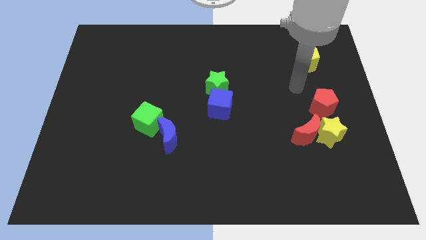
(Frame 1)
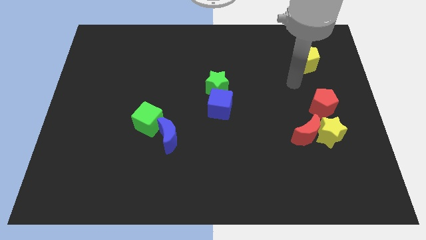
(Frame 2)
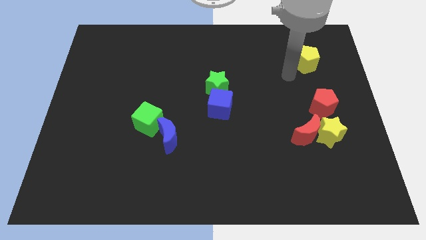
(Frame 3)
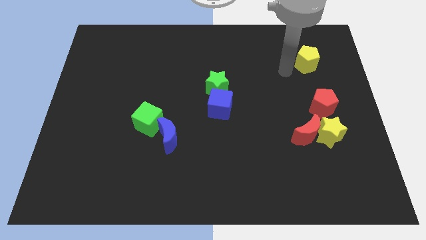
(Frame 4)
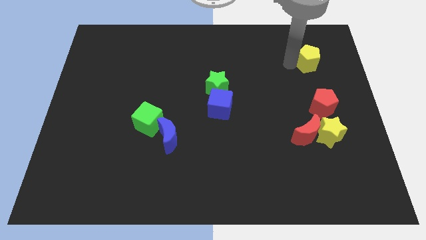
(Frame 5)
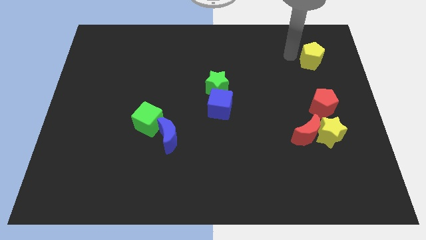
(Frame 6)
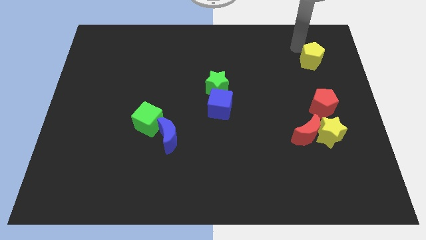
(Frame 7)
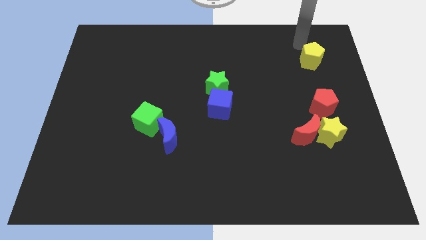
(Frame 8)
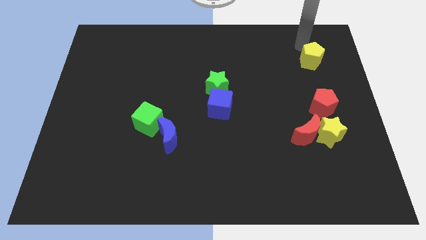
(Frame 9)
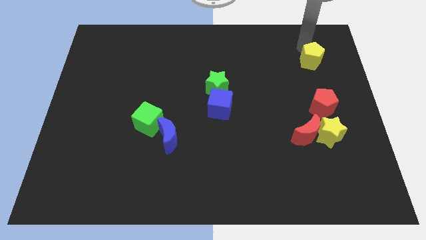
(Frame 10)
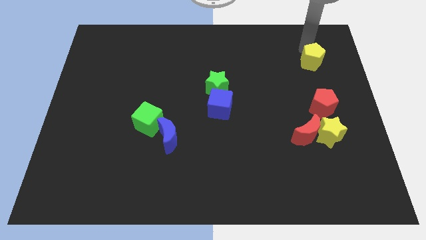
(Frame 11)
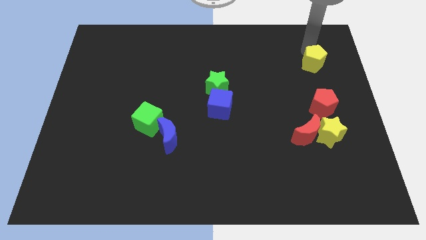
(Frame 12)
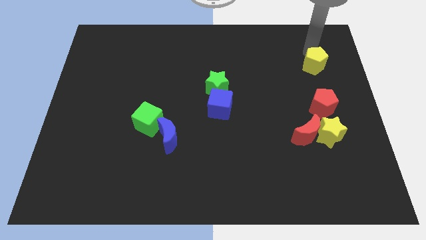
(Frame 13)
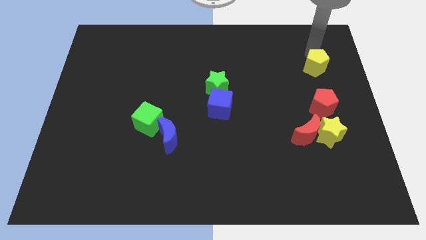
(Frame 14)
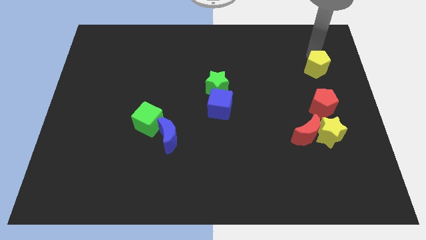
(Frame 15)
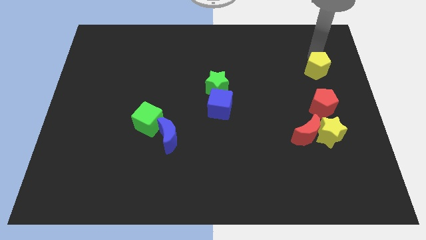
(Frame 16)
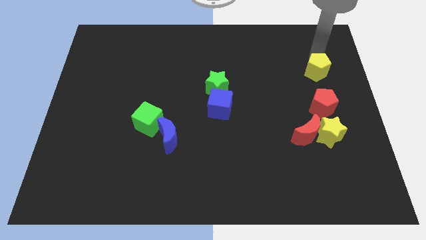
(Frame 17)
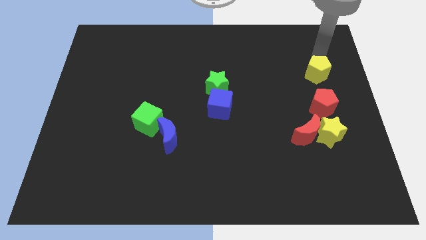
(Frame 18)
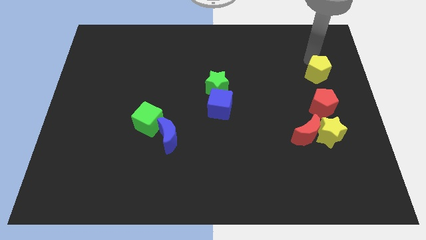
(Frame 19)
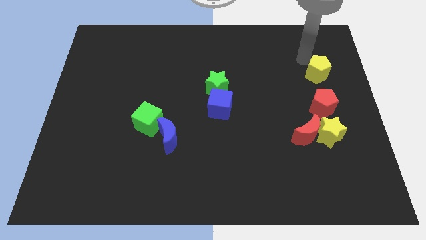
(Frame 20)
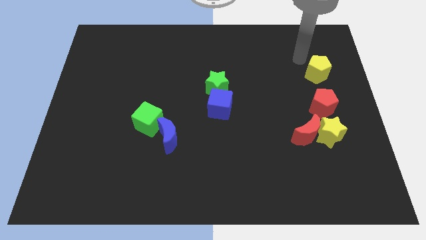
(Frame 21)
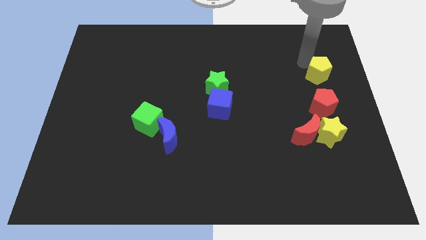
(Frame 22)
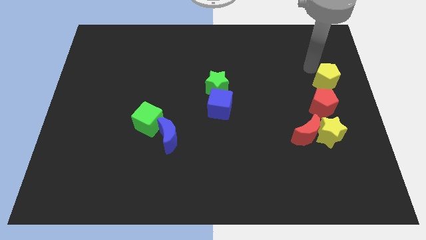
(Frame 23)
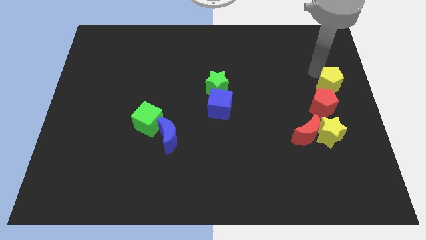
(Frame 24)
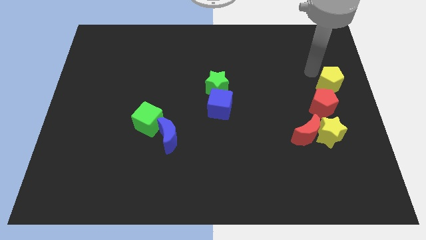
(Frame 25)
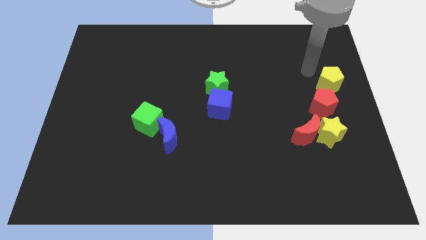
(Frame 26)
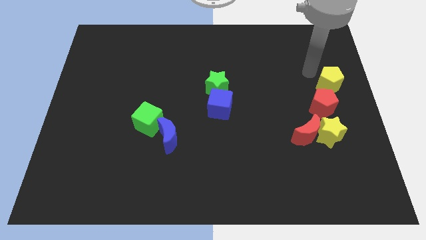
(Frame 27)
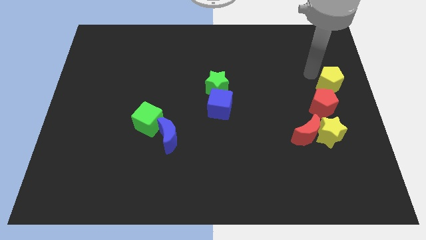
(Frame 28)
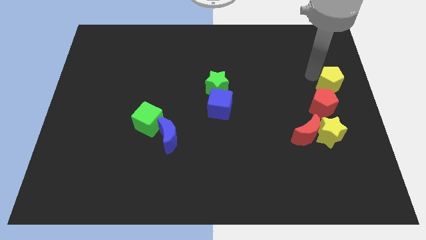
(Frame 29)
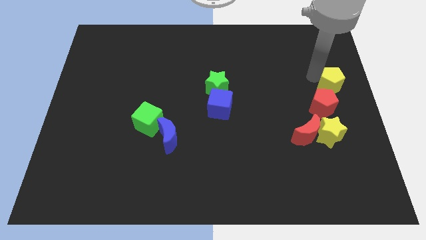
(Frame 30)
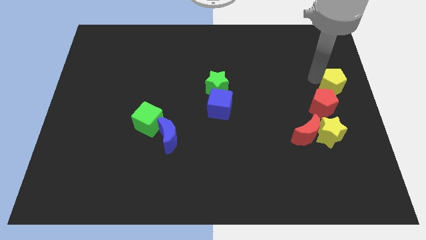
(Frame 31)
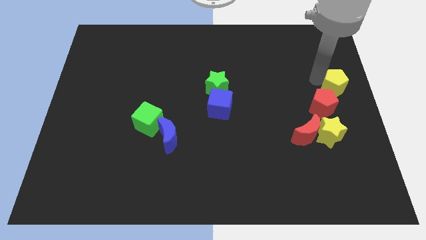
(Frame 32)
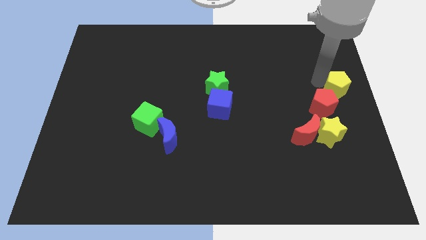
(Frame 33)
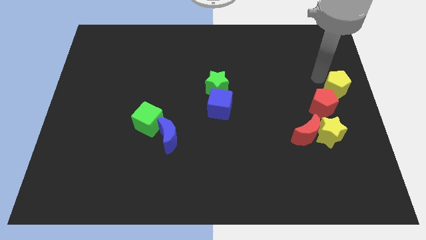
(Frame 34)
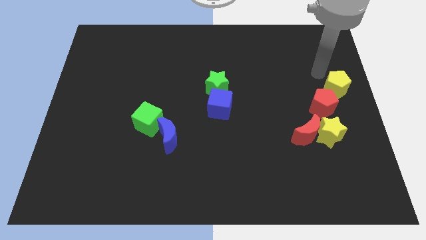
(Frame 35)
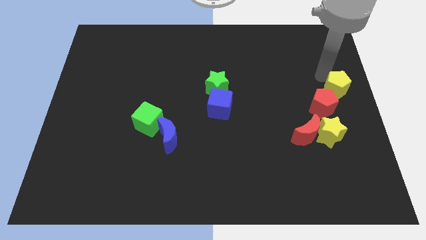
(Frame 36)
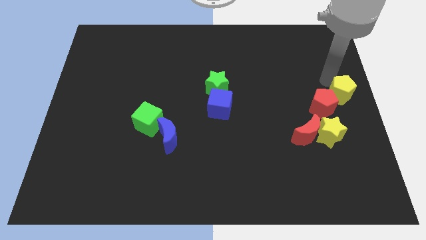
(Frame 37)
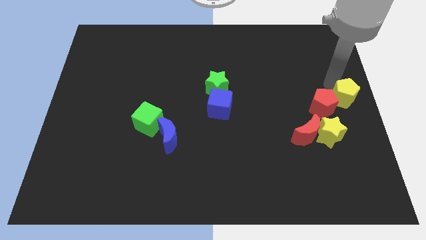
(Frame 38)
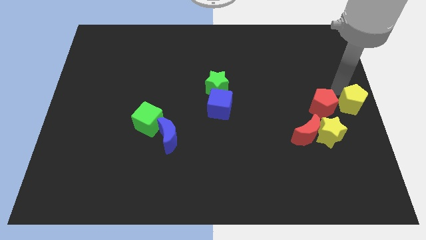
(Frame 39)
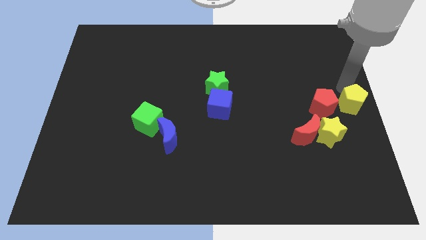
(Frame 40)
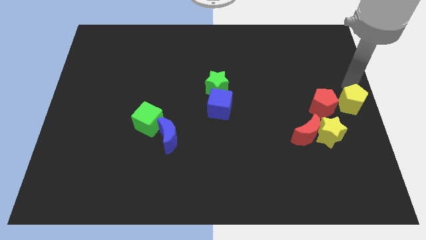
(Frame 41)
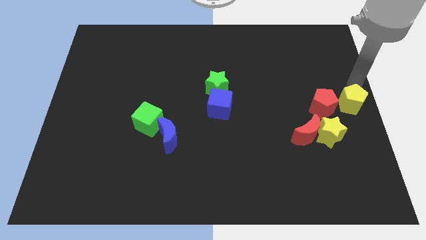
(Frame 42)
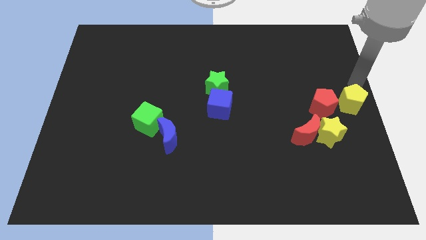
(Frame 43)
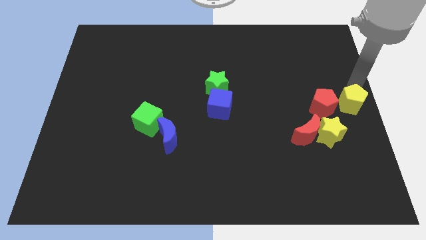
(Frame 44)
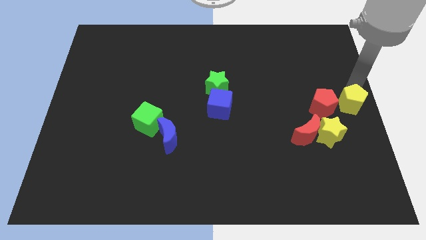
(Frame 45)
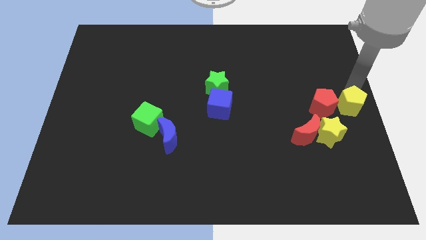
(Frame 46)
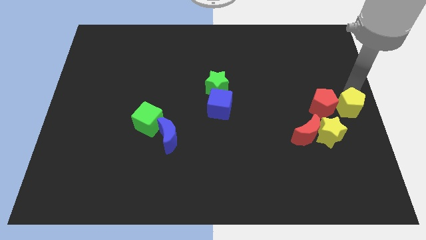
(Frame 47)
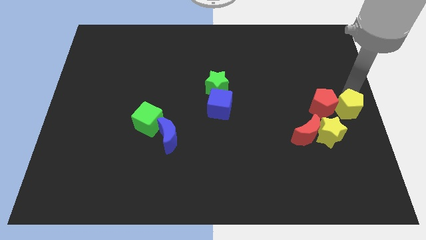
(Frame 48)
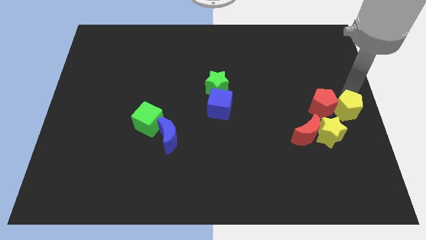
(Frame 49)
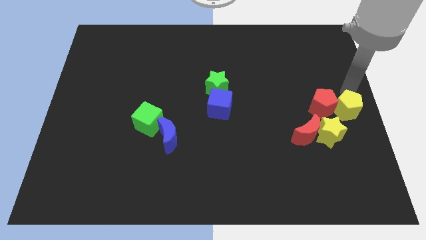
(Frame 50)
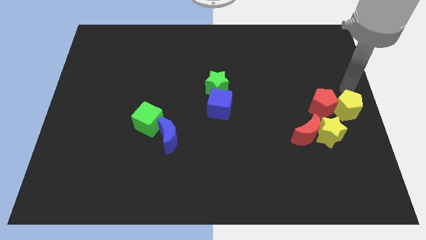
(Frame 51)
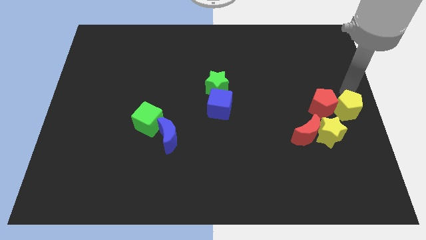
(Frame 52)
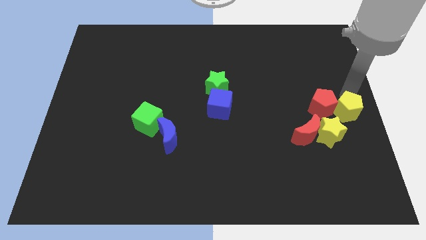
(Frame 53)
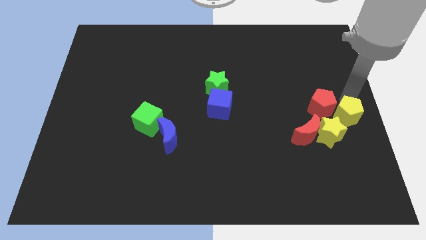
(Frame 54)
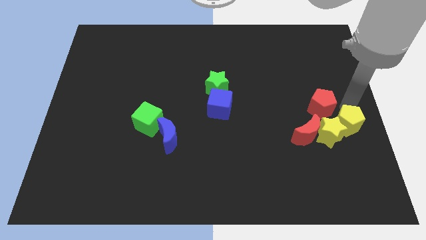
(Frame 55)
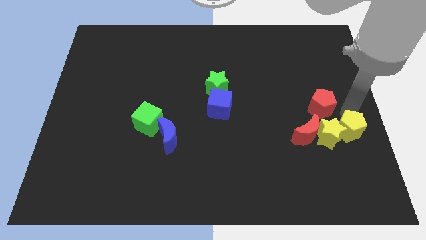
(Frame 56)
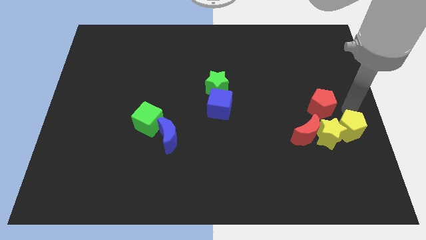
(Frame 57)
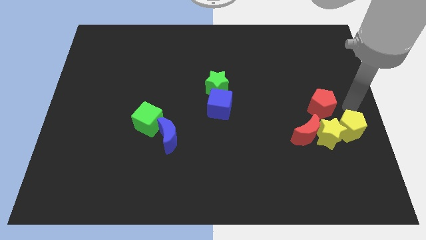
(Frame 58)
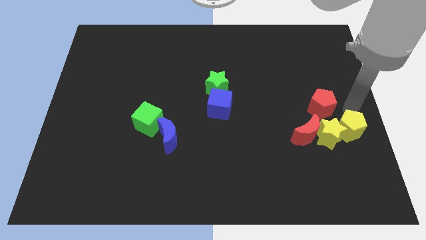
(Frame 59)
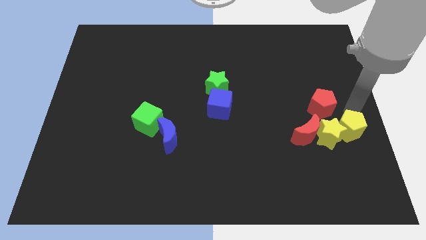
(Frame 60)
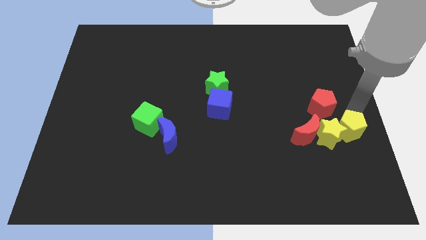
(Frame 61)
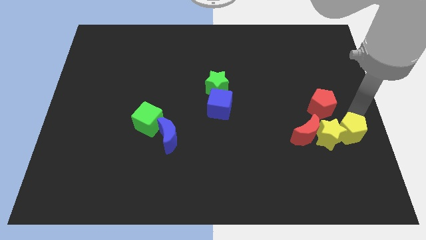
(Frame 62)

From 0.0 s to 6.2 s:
push the yellow pentagon downwards

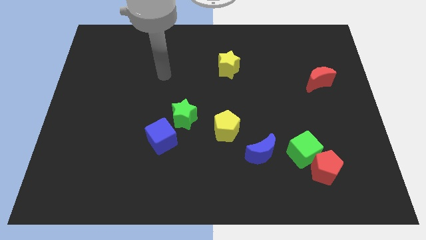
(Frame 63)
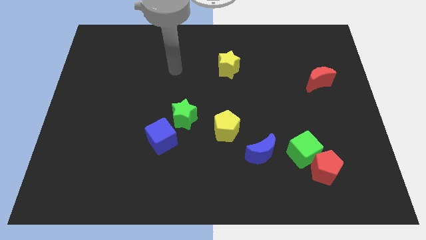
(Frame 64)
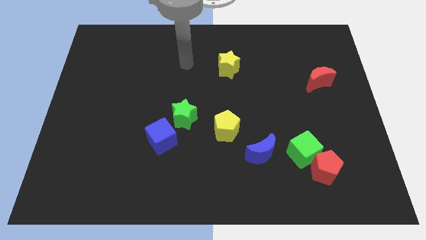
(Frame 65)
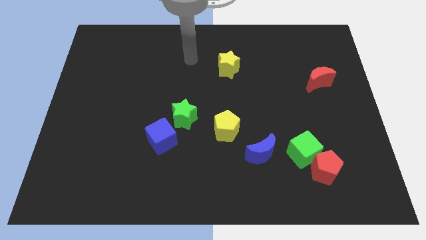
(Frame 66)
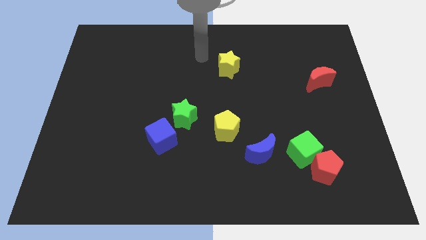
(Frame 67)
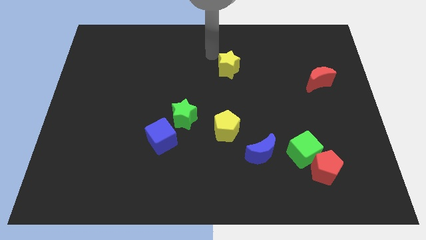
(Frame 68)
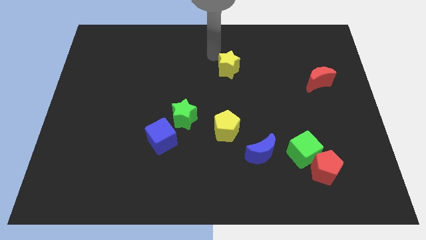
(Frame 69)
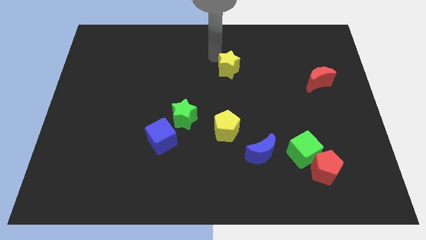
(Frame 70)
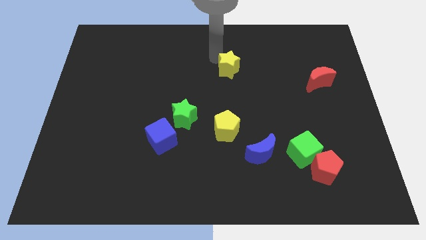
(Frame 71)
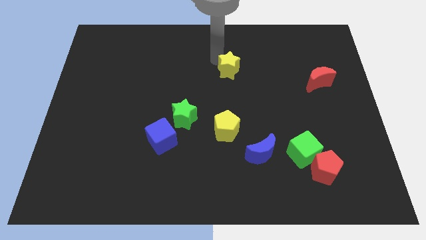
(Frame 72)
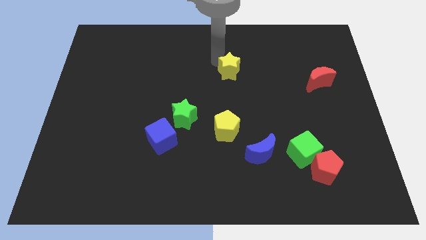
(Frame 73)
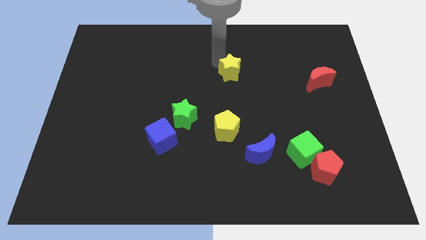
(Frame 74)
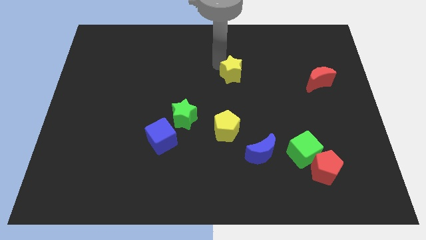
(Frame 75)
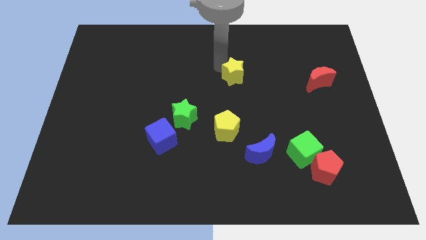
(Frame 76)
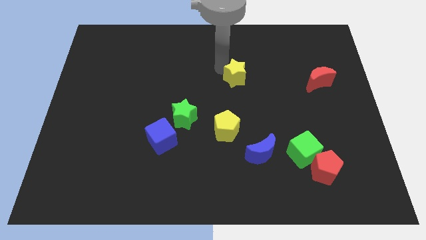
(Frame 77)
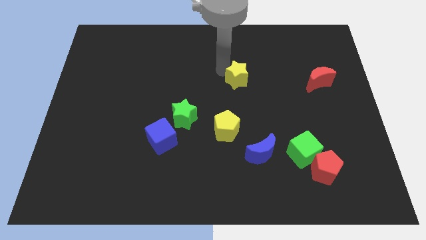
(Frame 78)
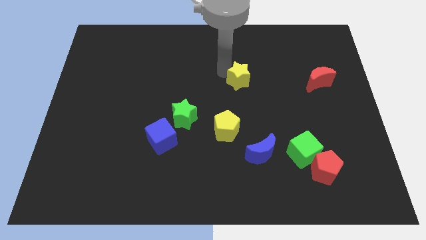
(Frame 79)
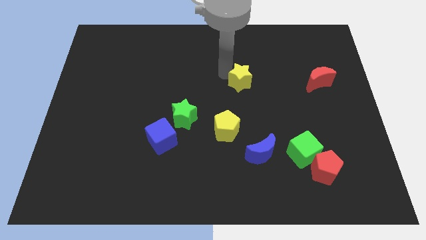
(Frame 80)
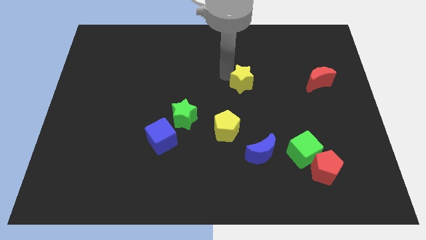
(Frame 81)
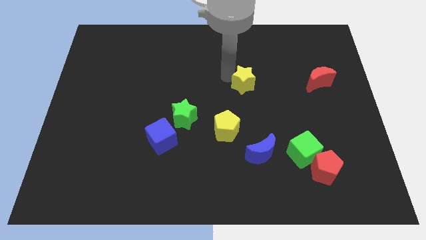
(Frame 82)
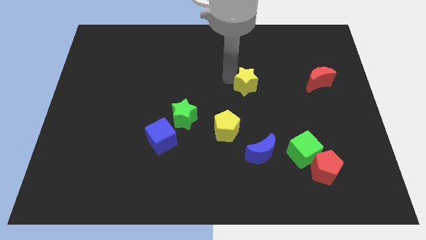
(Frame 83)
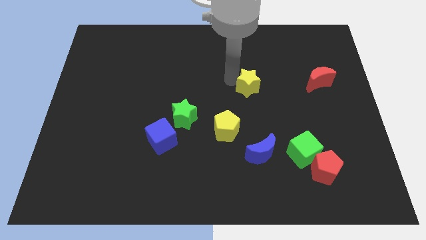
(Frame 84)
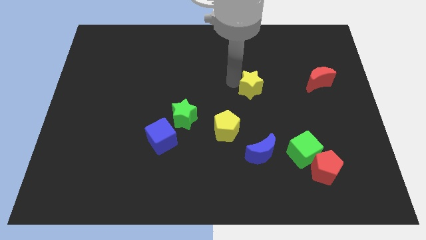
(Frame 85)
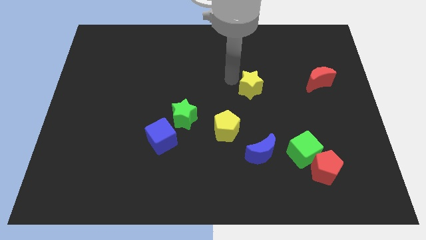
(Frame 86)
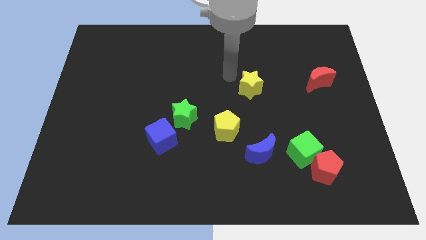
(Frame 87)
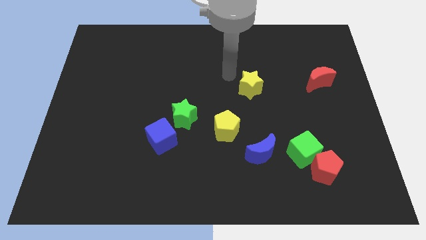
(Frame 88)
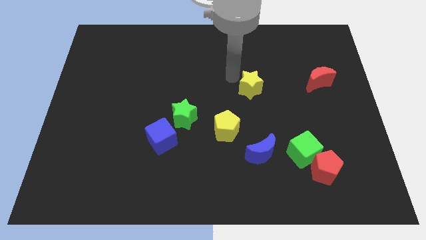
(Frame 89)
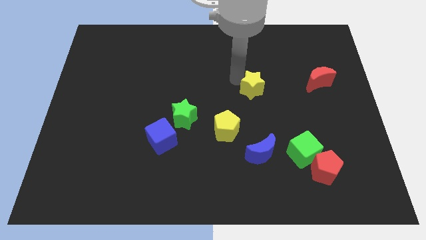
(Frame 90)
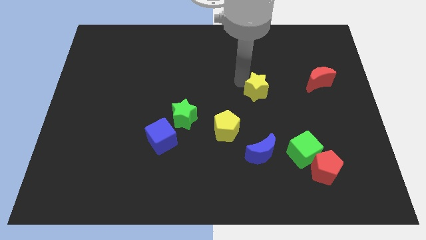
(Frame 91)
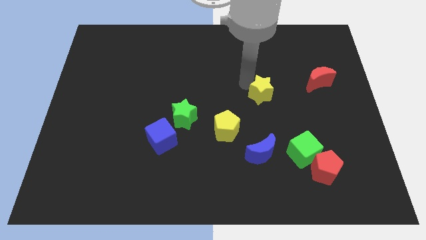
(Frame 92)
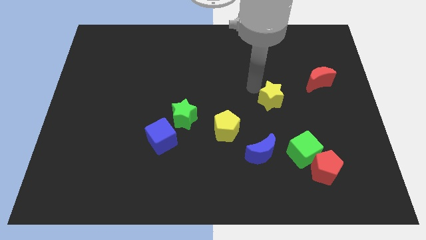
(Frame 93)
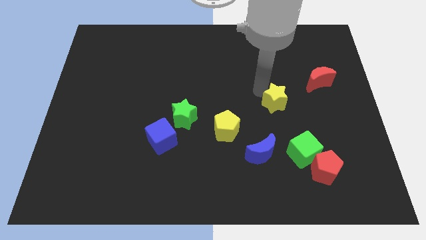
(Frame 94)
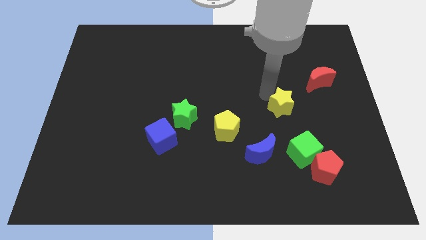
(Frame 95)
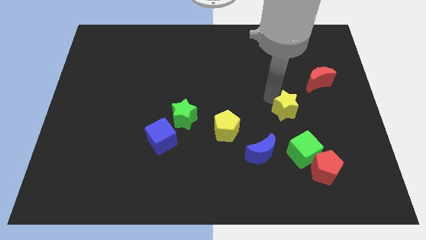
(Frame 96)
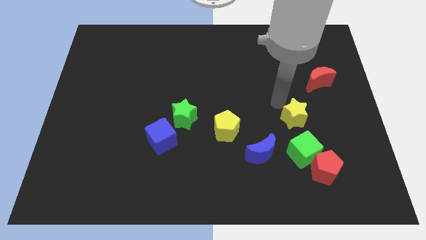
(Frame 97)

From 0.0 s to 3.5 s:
slide the yellow star downwards and right diagonally
